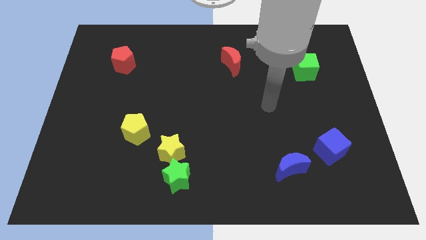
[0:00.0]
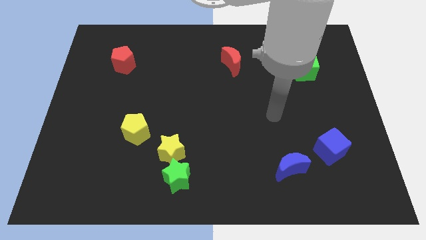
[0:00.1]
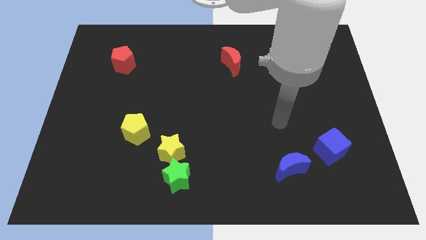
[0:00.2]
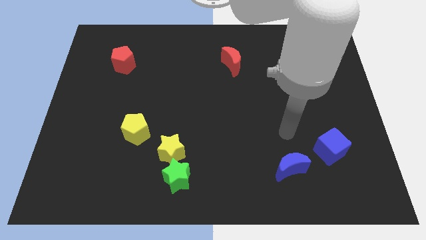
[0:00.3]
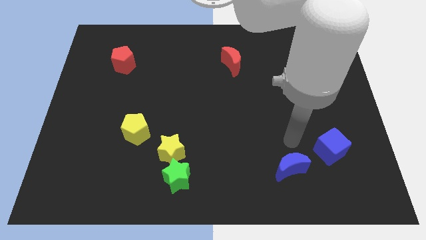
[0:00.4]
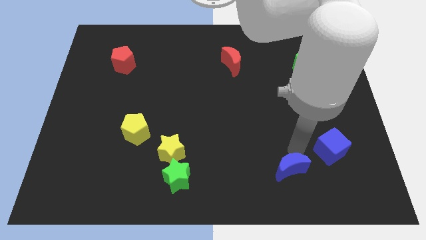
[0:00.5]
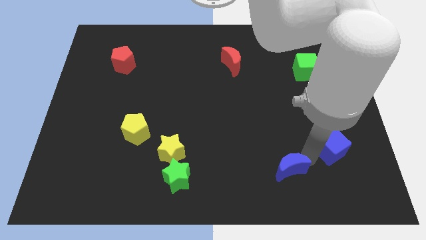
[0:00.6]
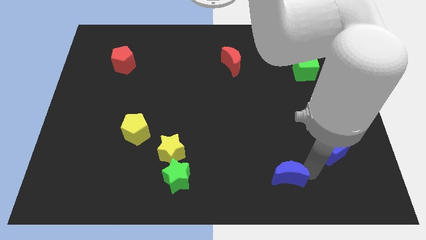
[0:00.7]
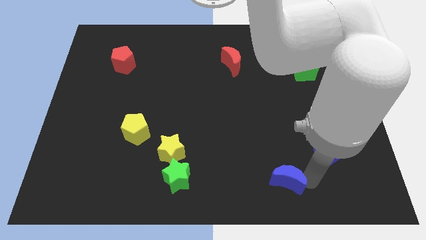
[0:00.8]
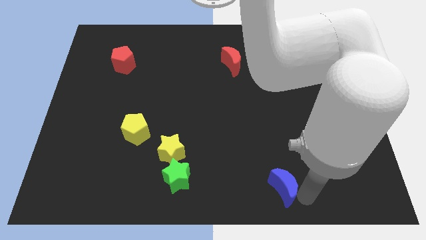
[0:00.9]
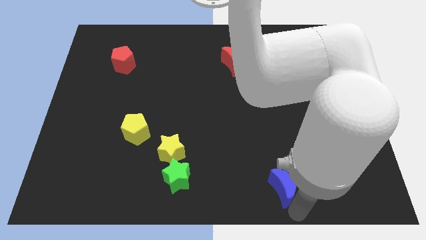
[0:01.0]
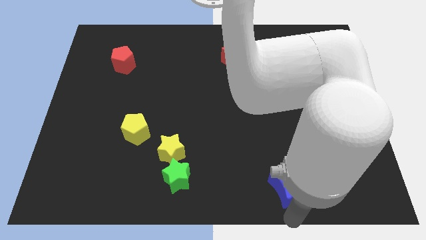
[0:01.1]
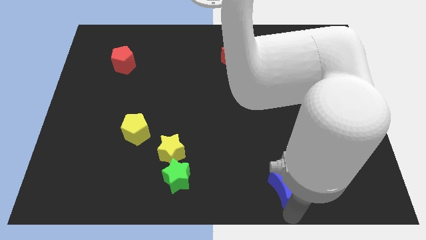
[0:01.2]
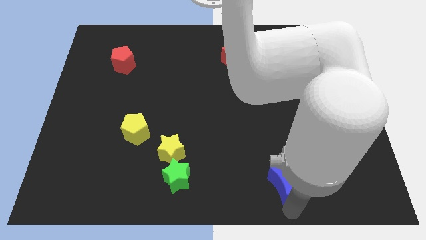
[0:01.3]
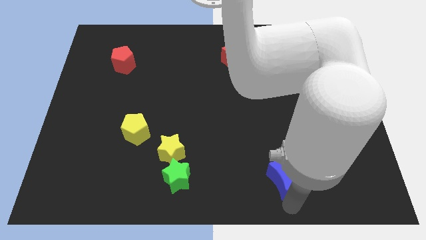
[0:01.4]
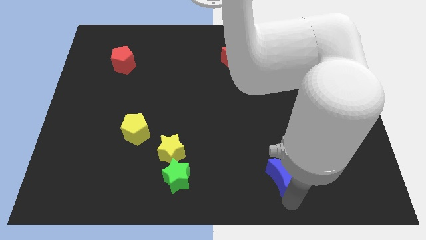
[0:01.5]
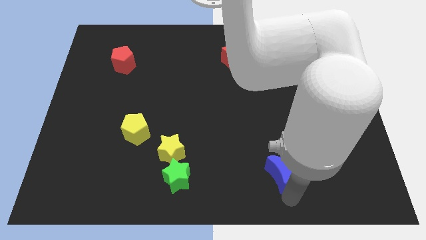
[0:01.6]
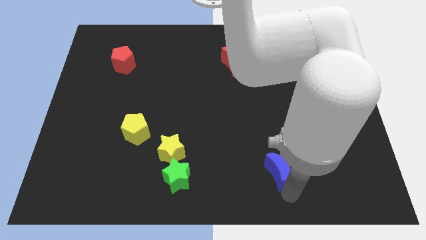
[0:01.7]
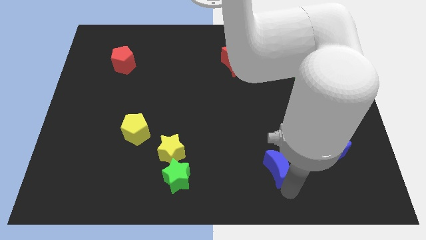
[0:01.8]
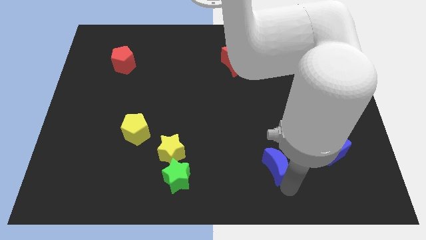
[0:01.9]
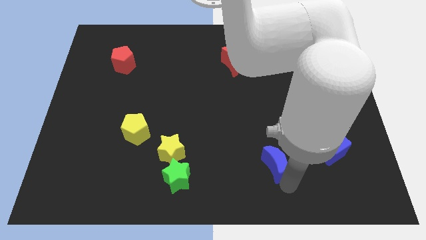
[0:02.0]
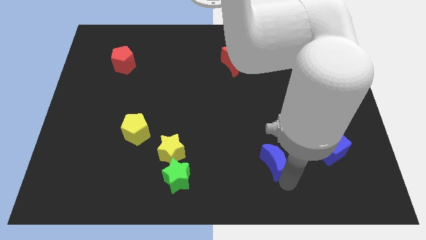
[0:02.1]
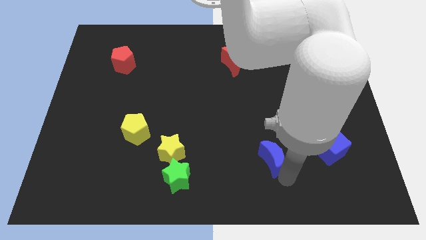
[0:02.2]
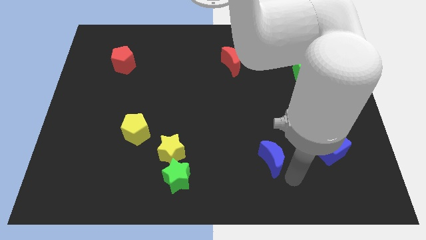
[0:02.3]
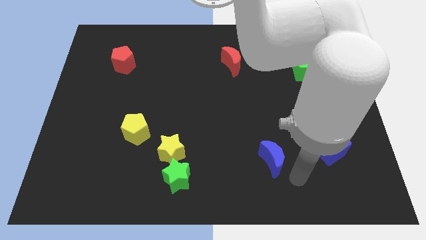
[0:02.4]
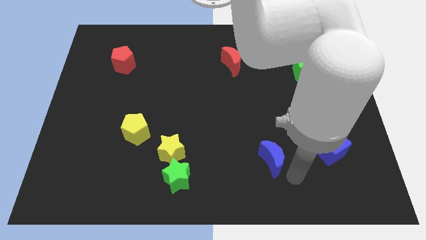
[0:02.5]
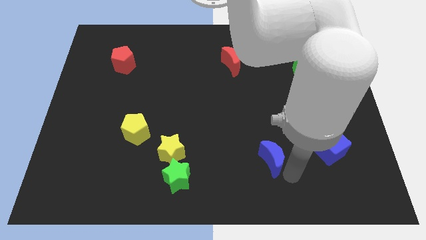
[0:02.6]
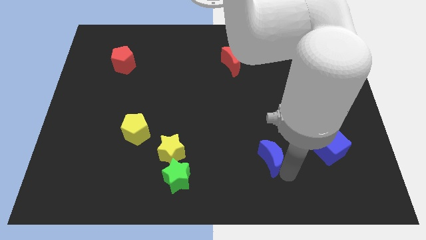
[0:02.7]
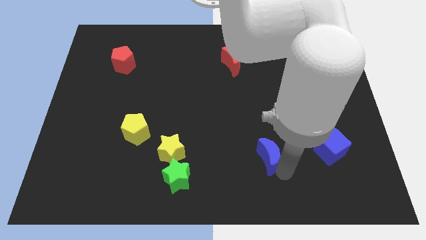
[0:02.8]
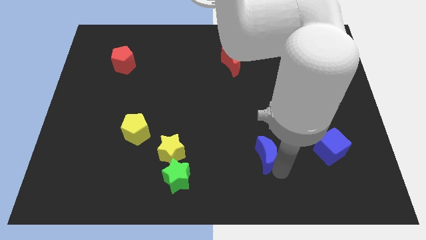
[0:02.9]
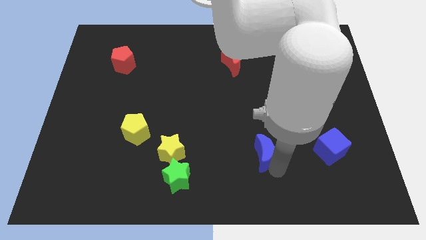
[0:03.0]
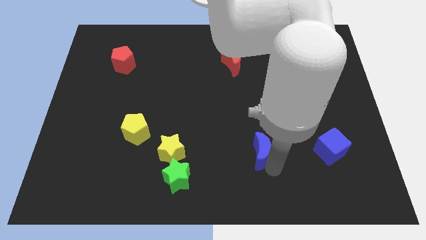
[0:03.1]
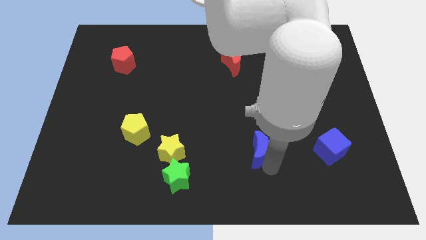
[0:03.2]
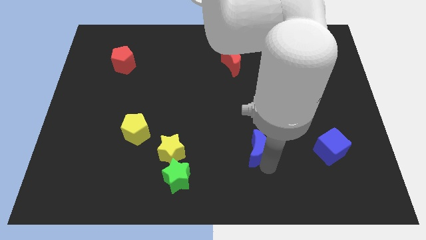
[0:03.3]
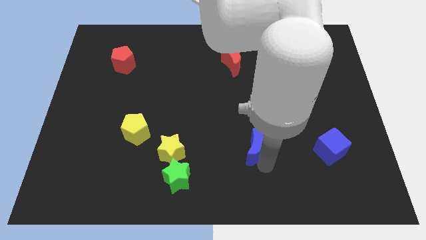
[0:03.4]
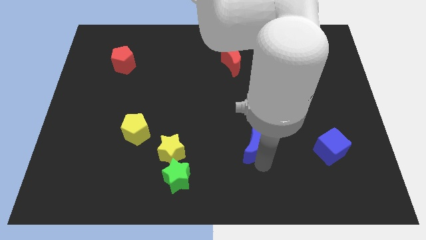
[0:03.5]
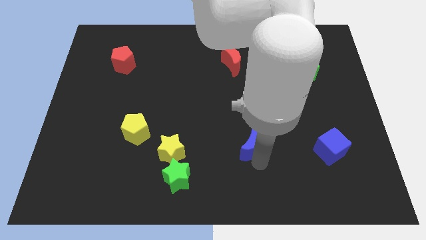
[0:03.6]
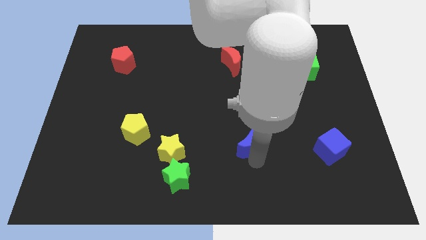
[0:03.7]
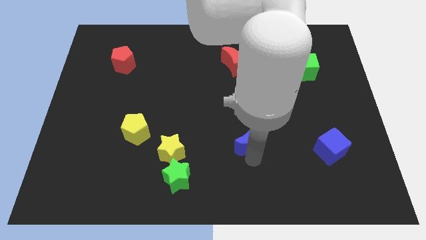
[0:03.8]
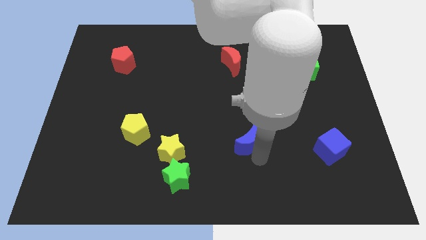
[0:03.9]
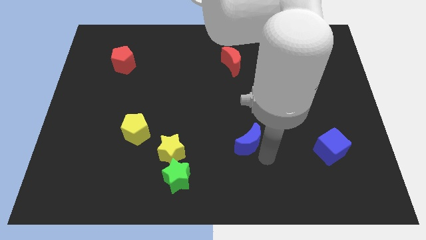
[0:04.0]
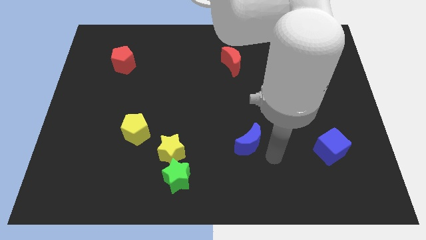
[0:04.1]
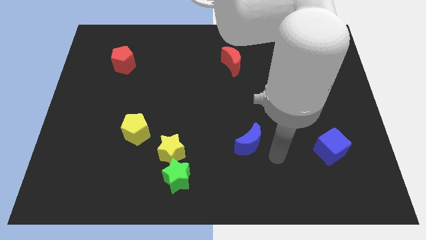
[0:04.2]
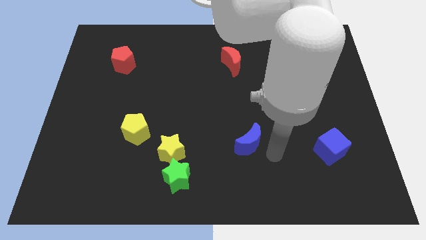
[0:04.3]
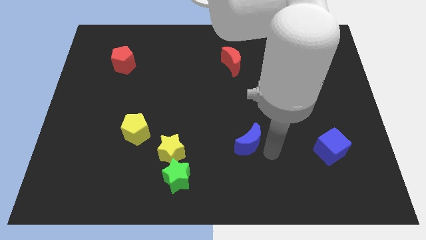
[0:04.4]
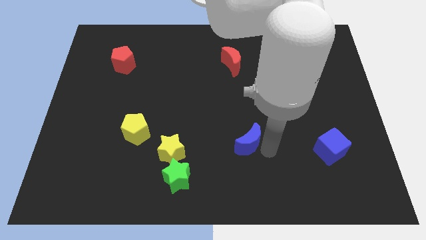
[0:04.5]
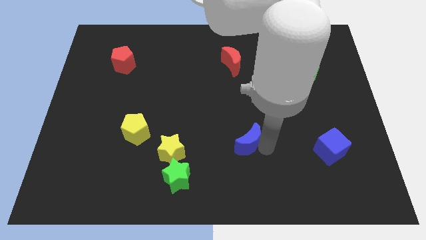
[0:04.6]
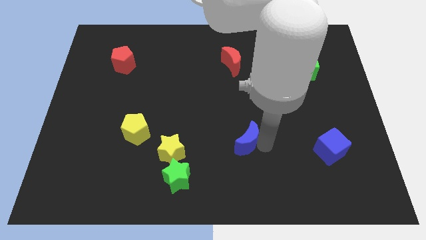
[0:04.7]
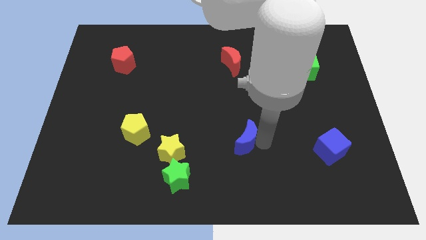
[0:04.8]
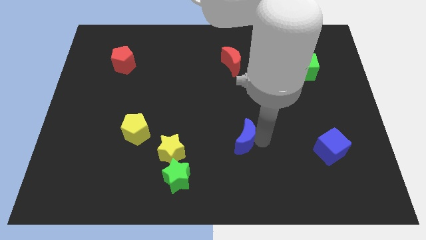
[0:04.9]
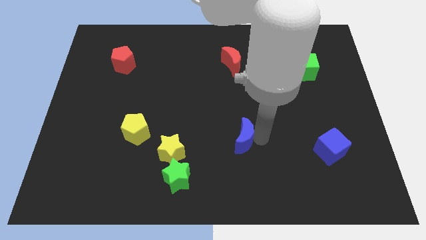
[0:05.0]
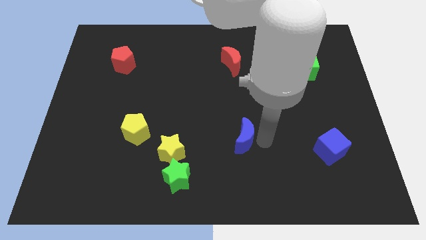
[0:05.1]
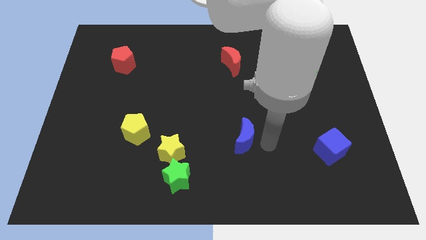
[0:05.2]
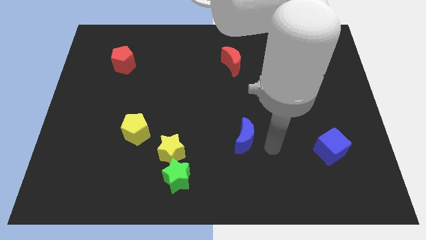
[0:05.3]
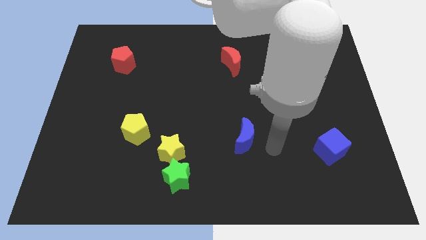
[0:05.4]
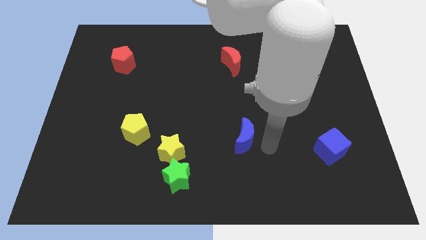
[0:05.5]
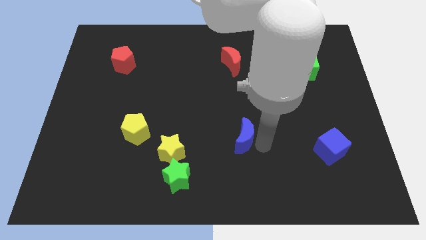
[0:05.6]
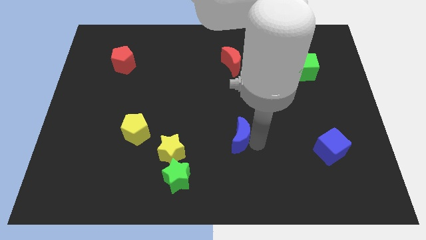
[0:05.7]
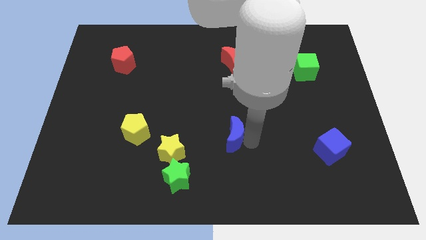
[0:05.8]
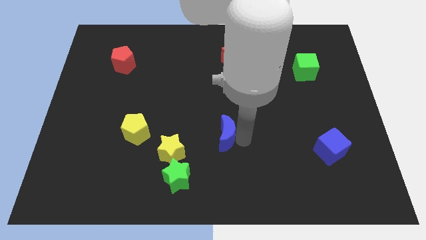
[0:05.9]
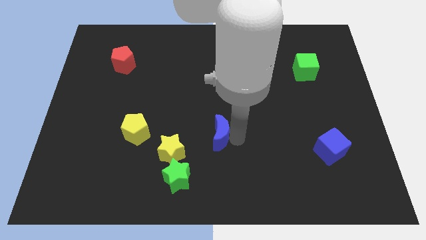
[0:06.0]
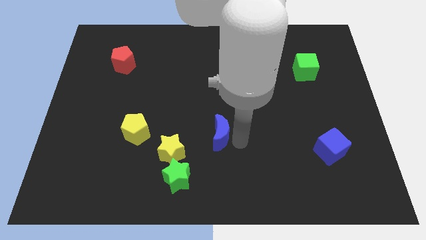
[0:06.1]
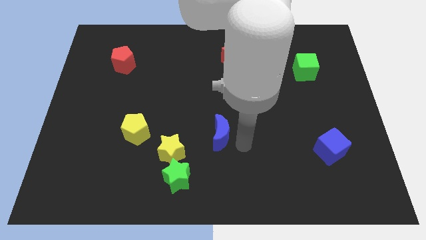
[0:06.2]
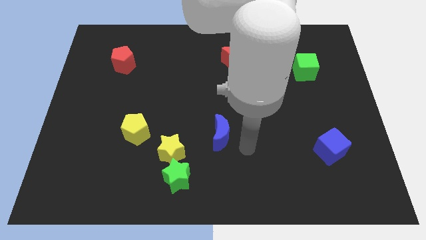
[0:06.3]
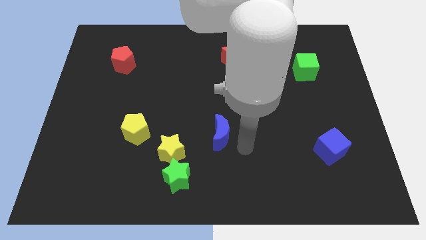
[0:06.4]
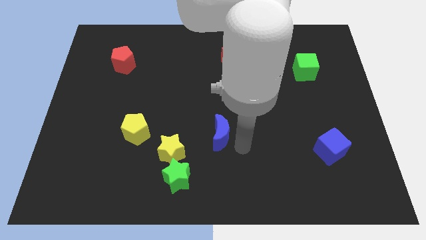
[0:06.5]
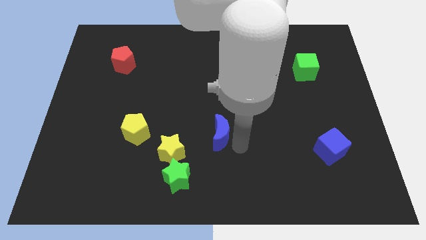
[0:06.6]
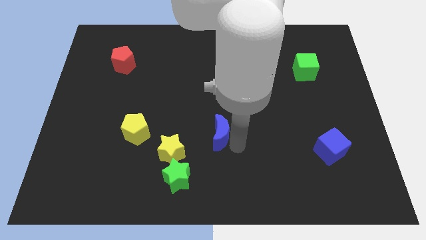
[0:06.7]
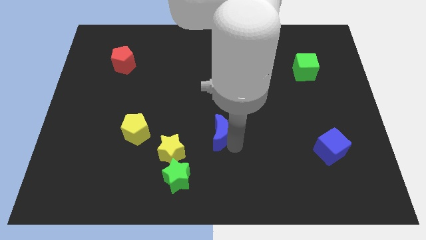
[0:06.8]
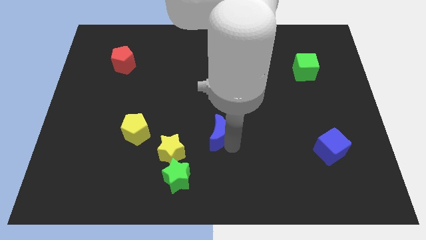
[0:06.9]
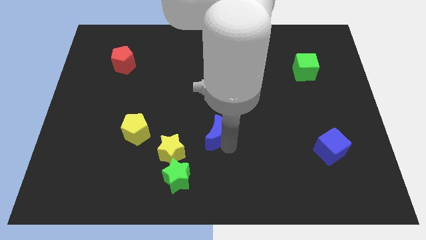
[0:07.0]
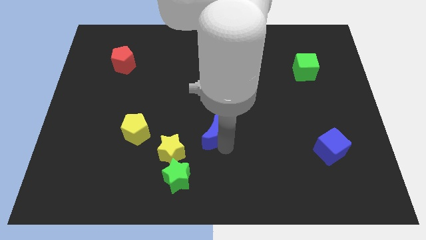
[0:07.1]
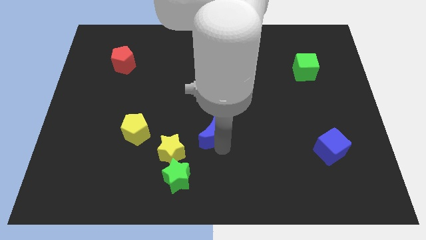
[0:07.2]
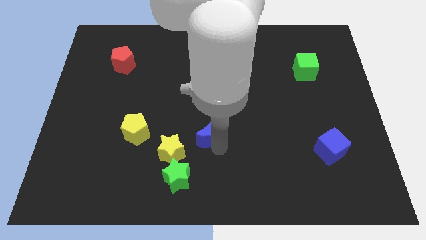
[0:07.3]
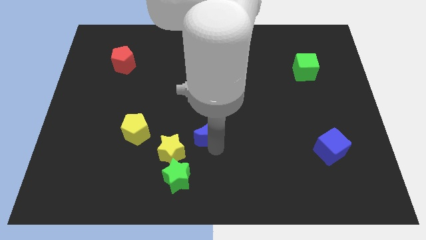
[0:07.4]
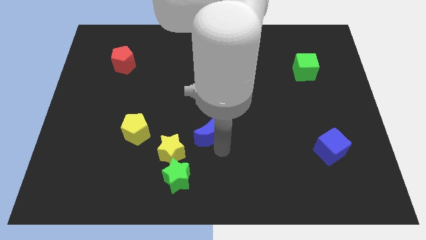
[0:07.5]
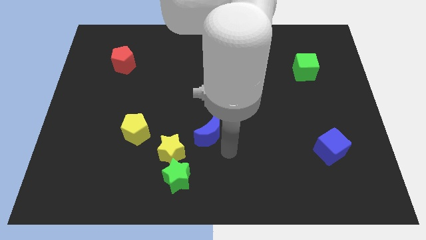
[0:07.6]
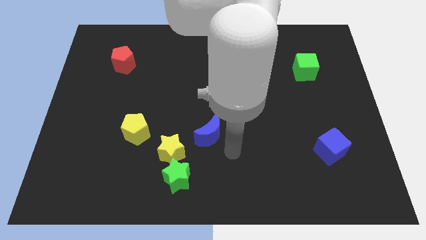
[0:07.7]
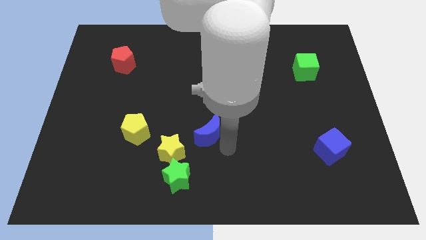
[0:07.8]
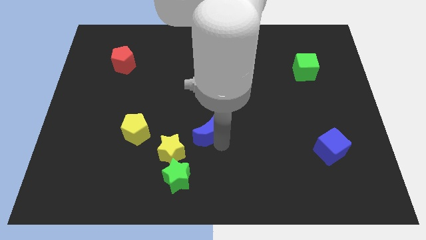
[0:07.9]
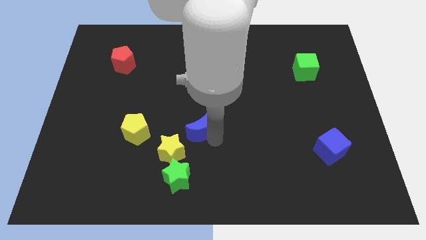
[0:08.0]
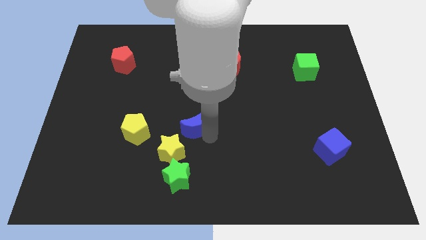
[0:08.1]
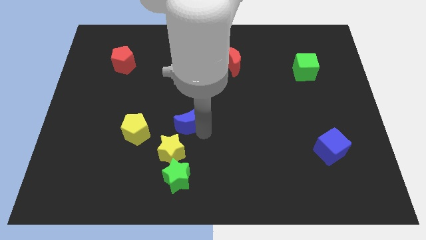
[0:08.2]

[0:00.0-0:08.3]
move the blue moon above the yellow star
